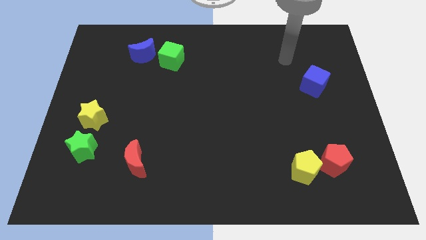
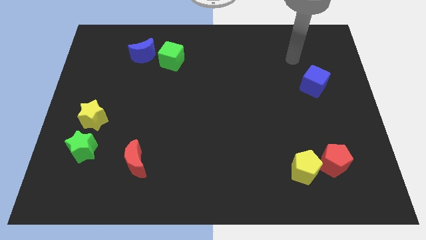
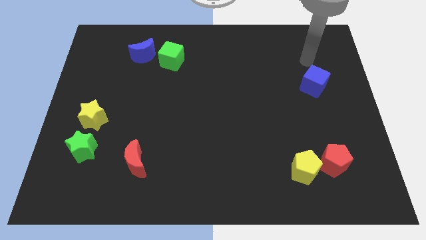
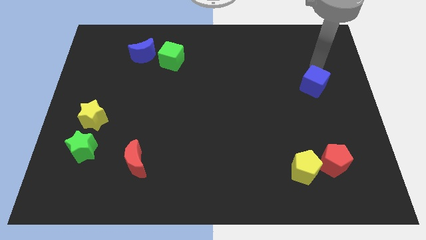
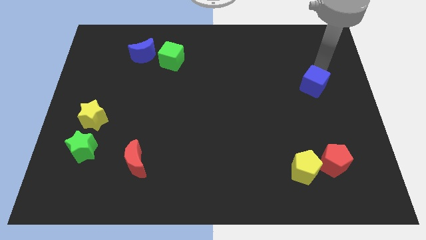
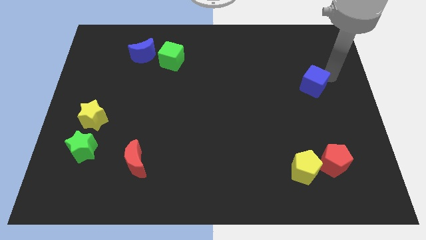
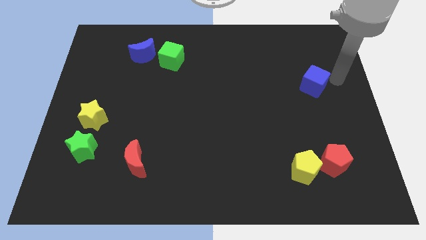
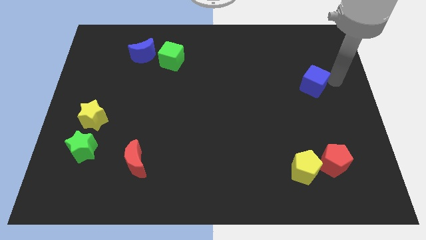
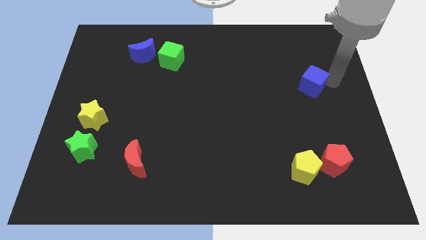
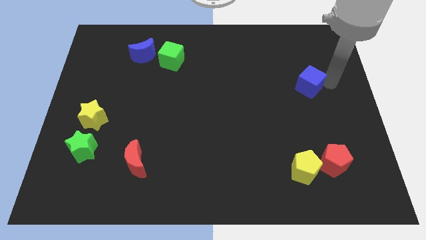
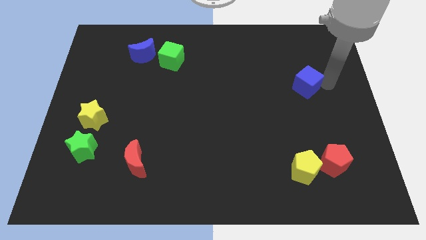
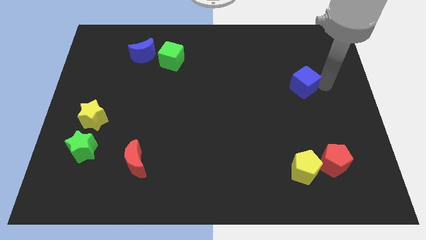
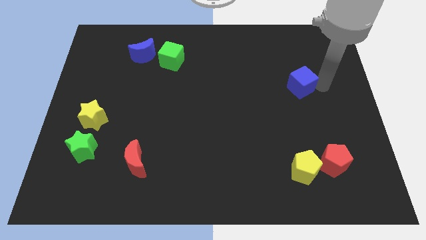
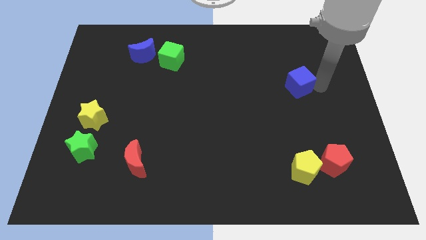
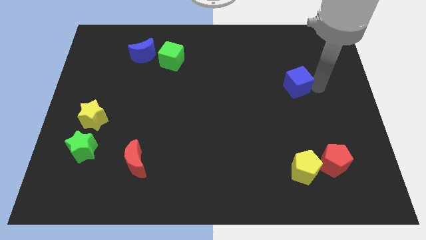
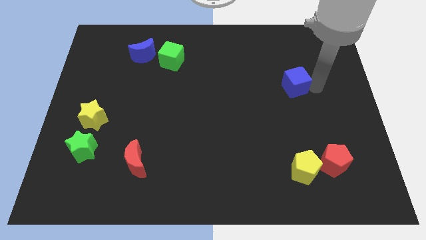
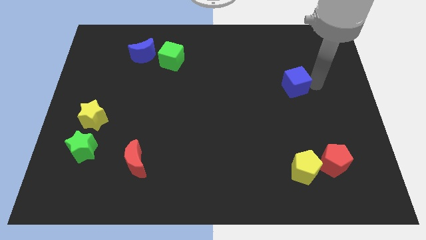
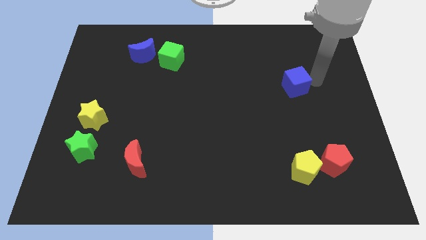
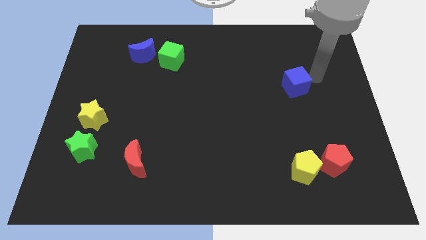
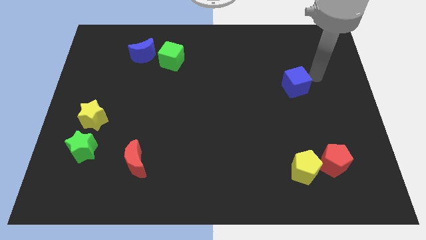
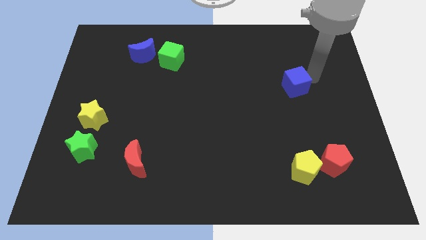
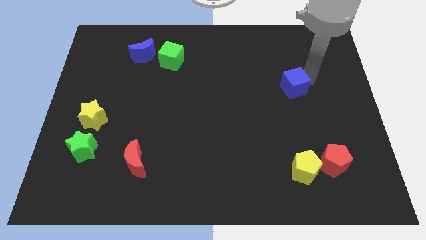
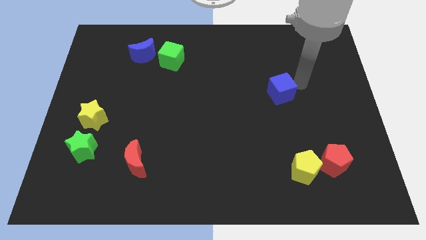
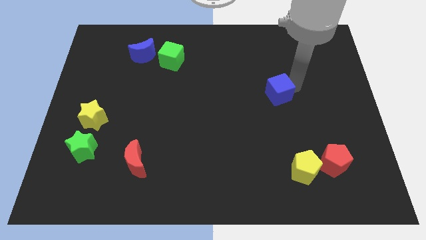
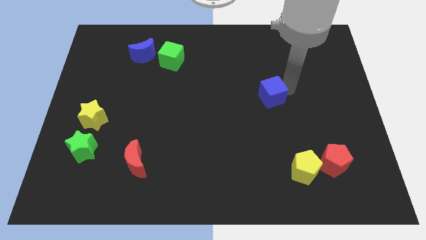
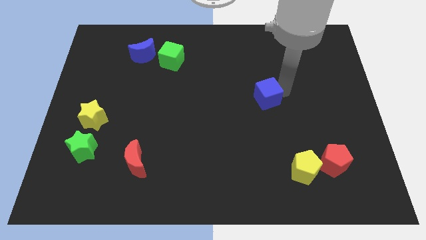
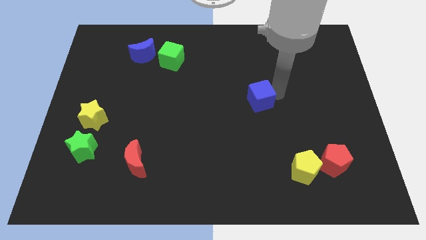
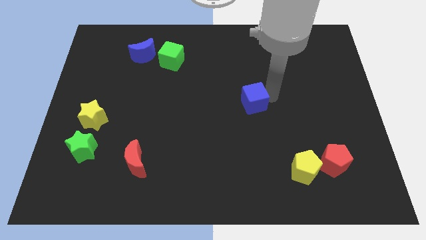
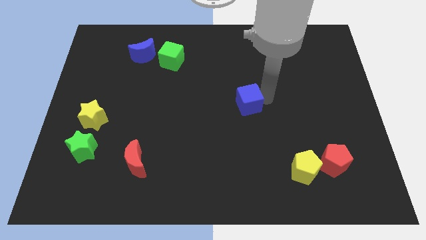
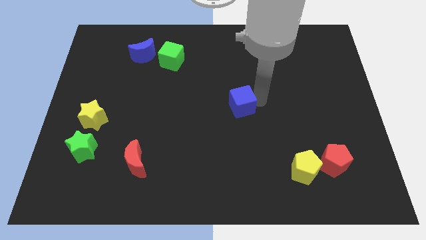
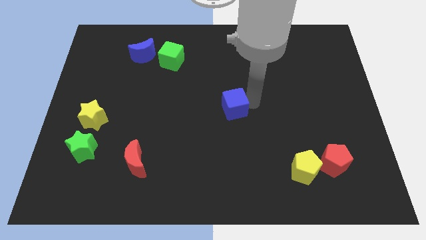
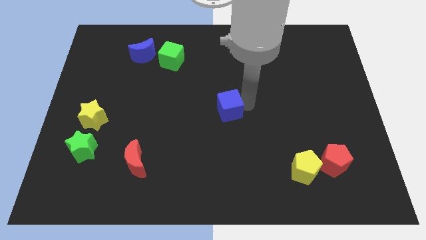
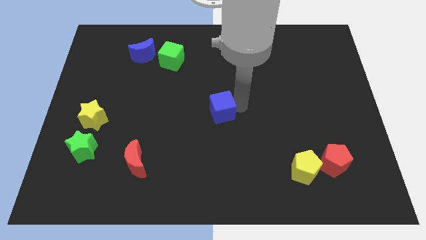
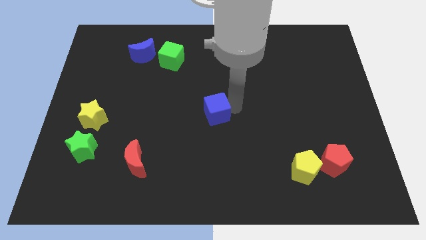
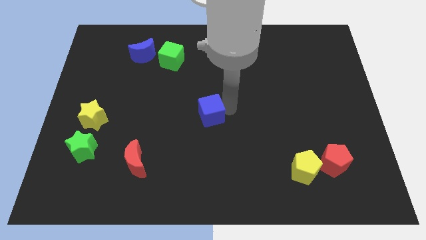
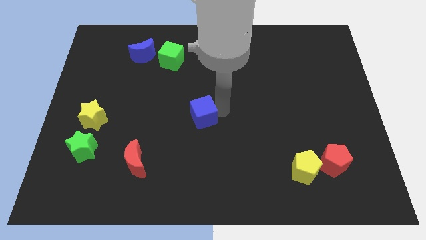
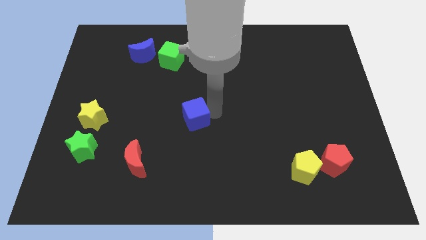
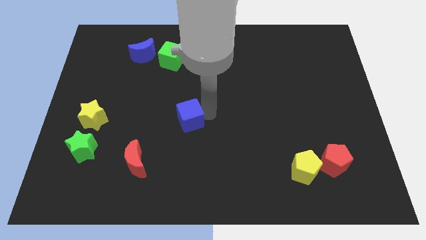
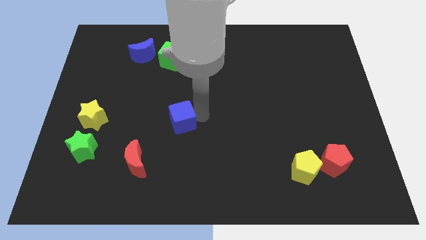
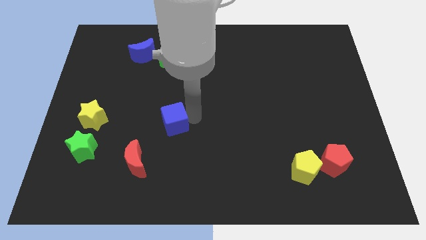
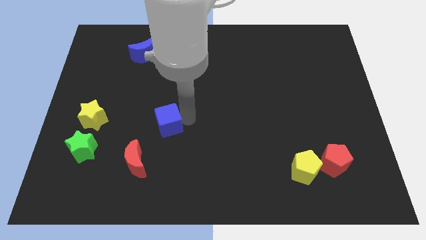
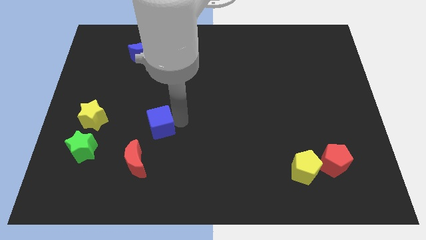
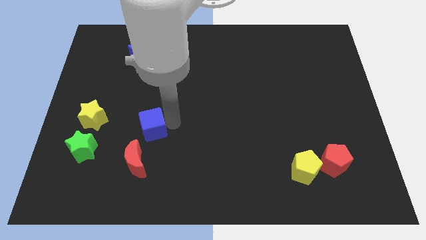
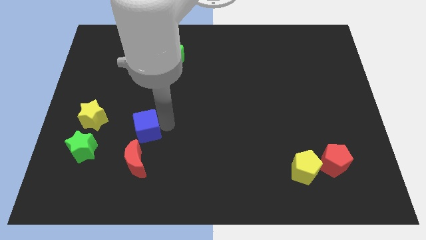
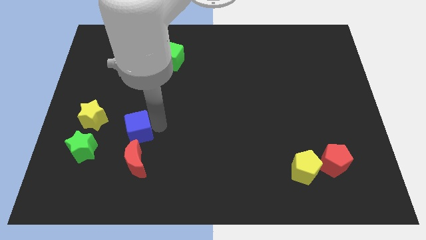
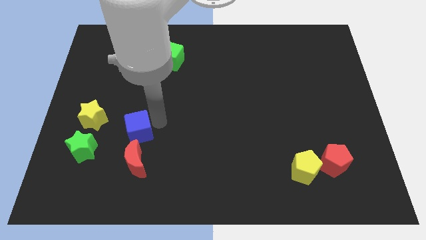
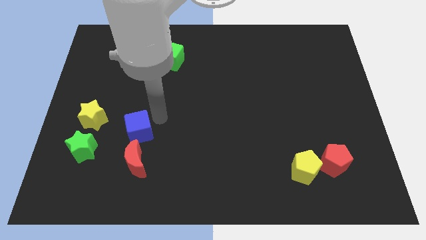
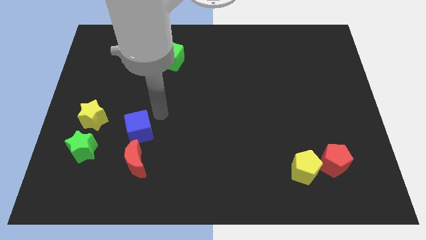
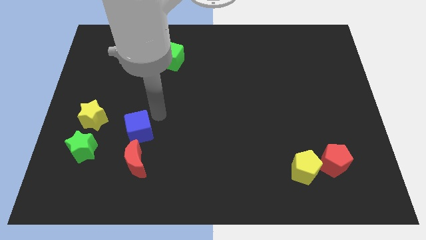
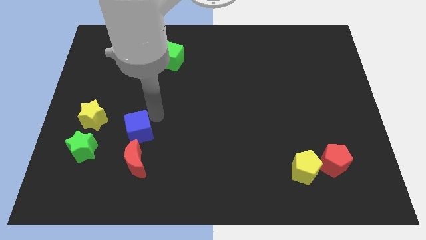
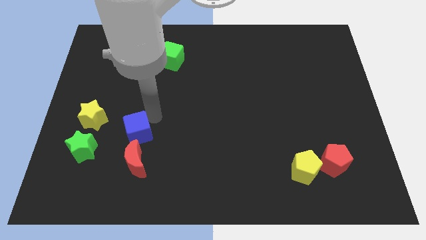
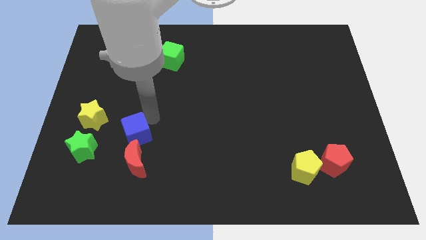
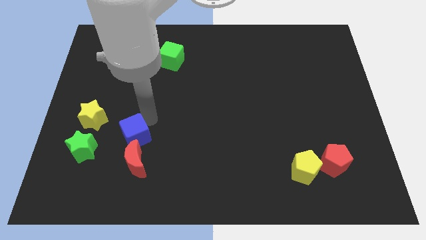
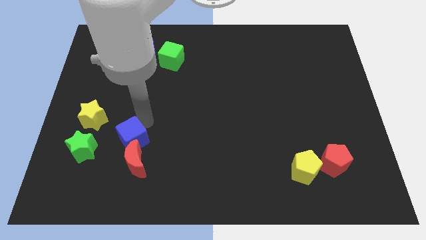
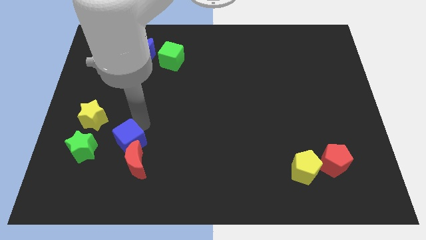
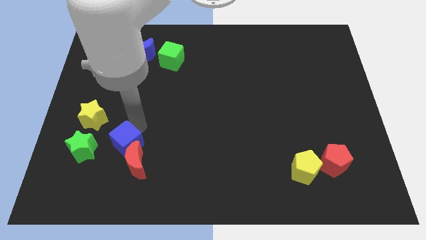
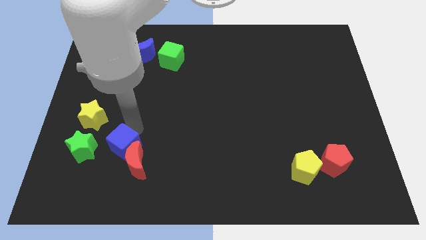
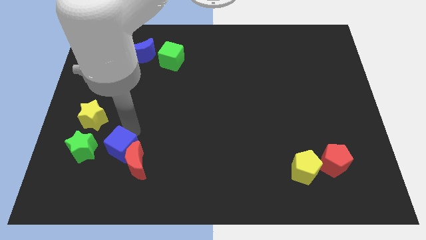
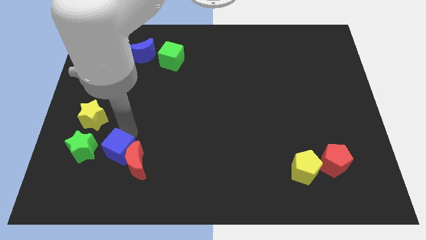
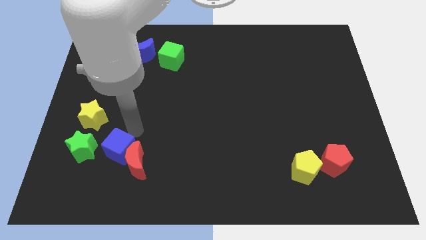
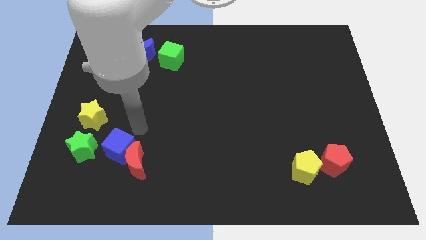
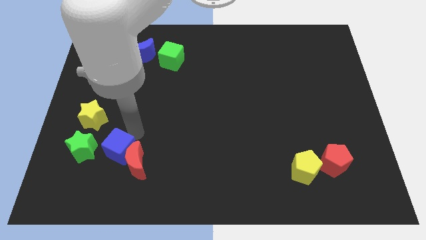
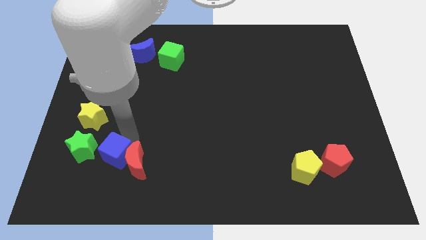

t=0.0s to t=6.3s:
push the blue cube diagonally down and to the right of the green star
